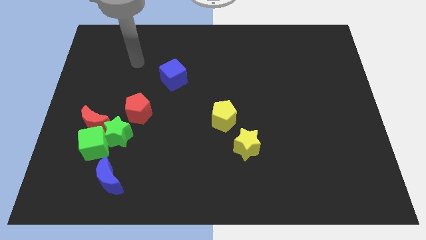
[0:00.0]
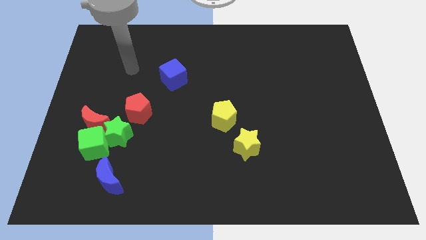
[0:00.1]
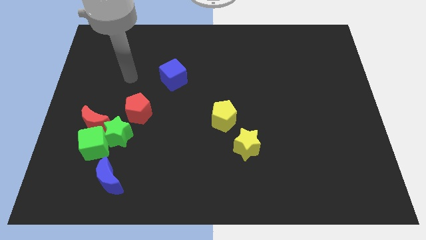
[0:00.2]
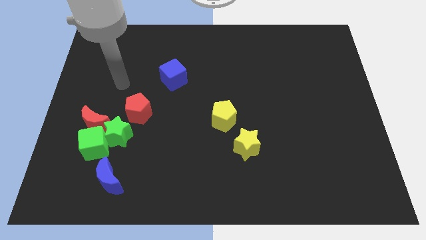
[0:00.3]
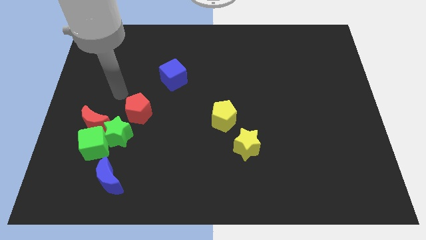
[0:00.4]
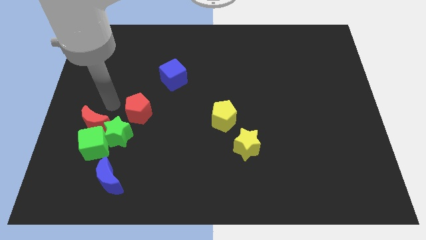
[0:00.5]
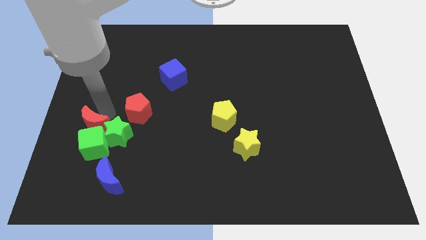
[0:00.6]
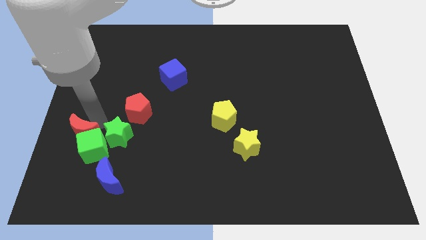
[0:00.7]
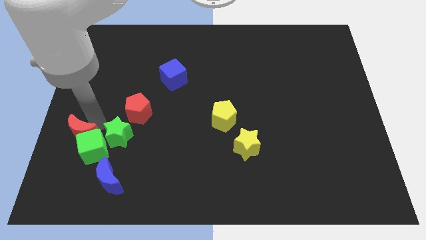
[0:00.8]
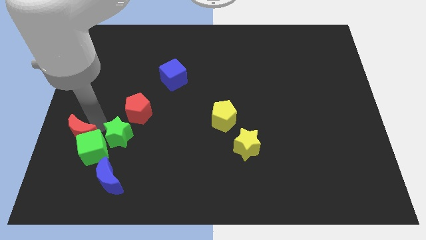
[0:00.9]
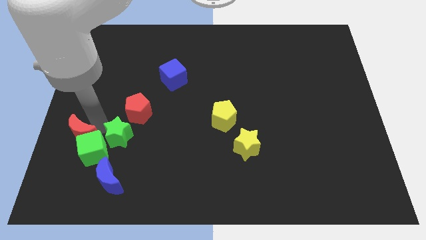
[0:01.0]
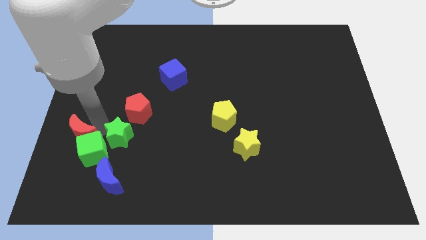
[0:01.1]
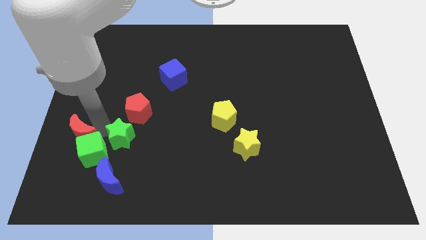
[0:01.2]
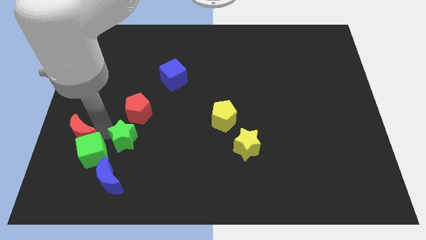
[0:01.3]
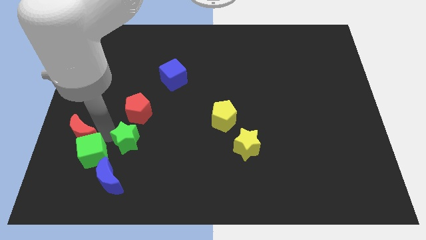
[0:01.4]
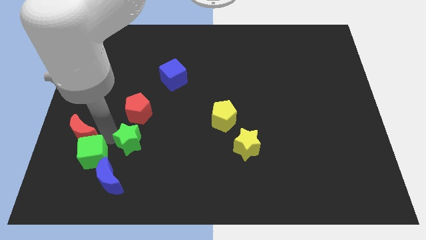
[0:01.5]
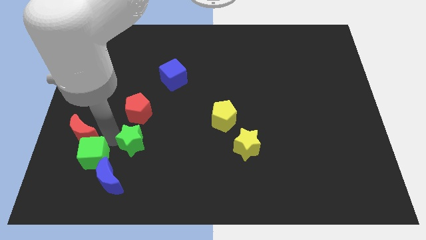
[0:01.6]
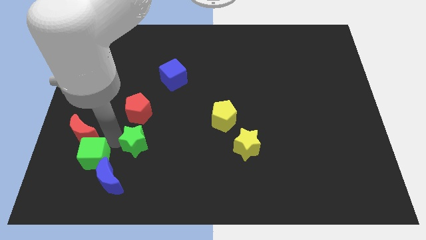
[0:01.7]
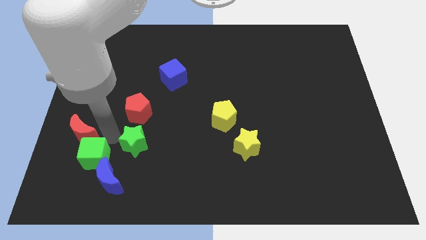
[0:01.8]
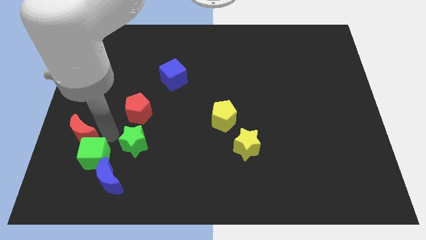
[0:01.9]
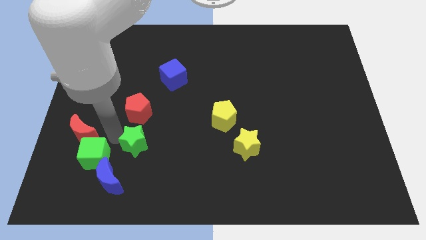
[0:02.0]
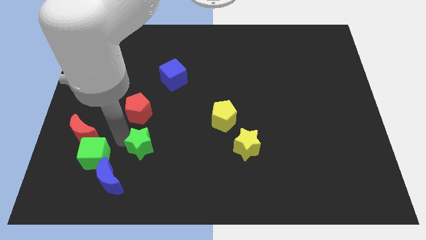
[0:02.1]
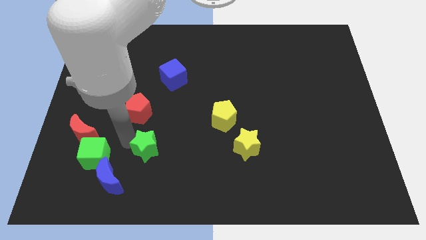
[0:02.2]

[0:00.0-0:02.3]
pull the green star apart from the clump

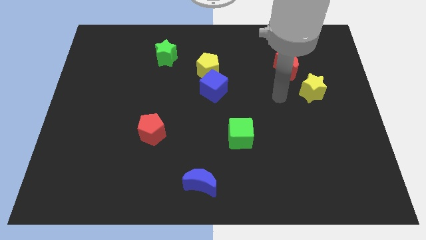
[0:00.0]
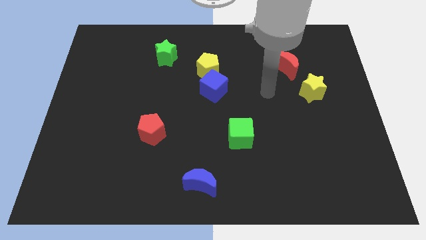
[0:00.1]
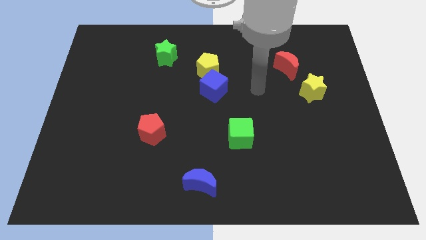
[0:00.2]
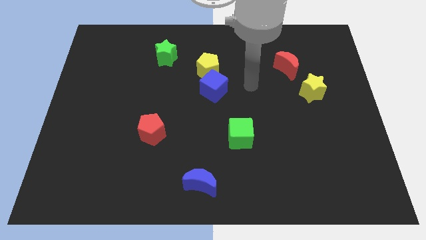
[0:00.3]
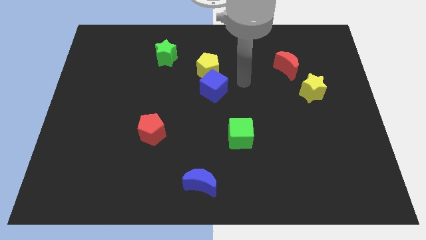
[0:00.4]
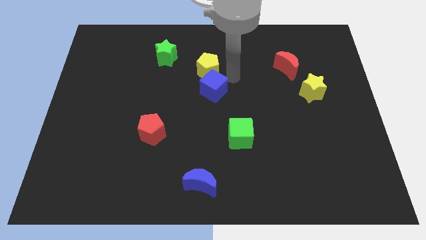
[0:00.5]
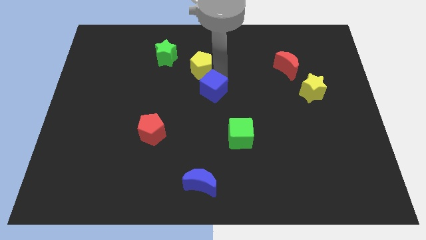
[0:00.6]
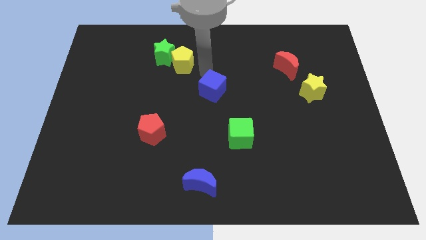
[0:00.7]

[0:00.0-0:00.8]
move the blue cube away from the yellow pentagon

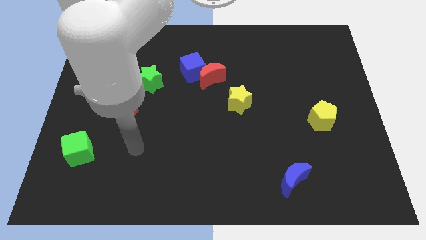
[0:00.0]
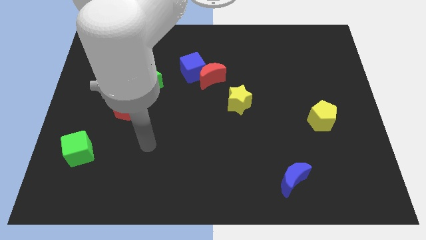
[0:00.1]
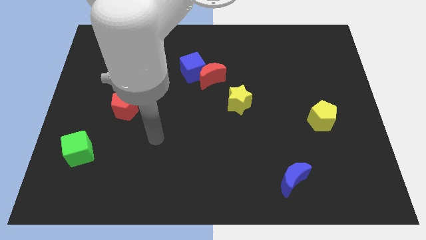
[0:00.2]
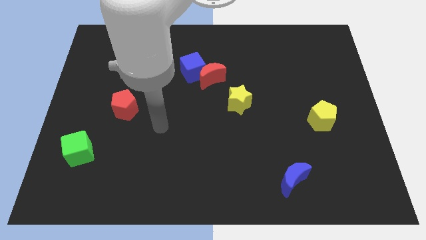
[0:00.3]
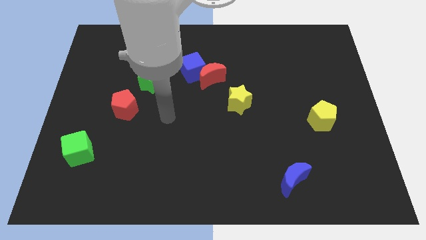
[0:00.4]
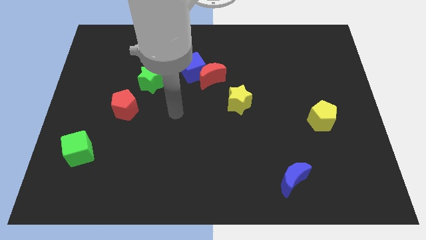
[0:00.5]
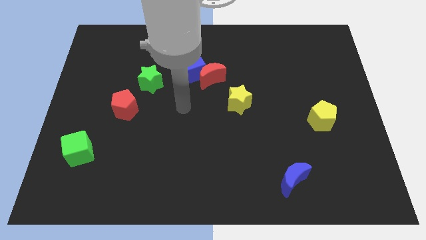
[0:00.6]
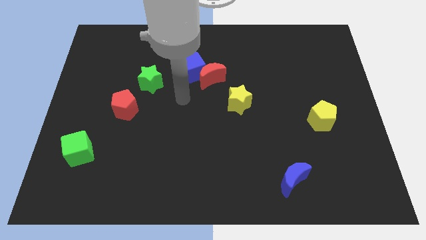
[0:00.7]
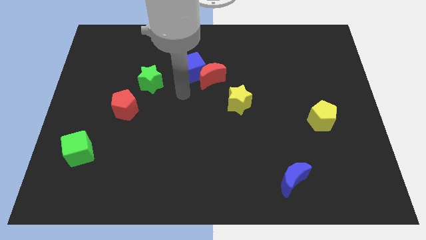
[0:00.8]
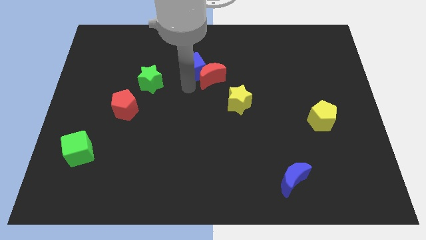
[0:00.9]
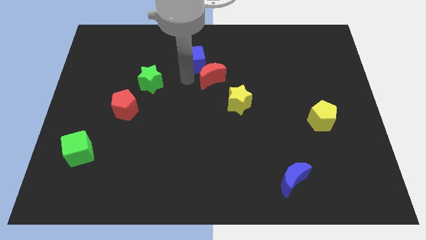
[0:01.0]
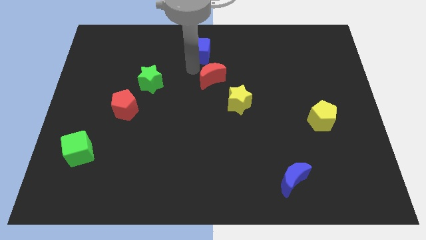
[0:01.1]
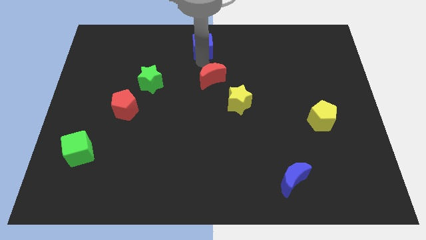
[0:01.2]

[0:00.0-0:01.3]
separate the red moon from the blue cube

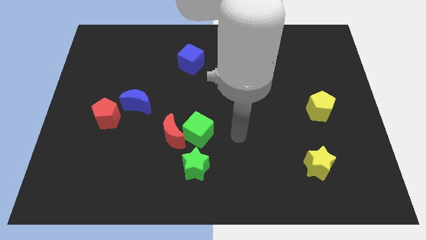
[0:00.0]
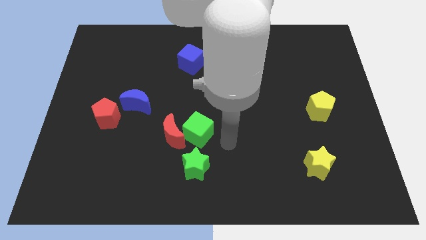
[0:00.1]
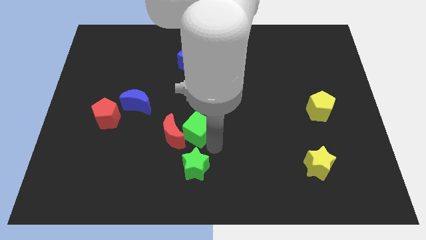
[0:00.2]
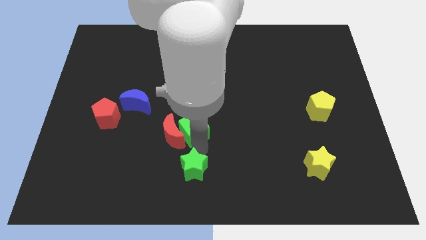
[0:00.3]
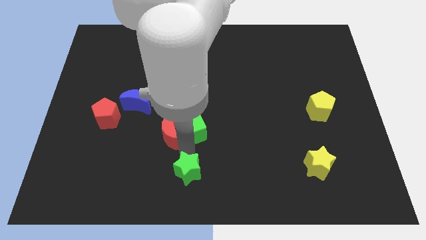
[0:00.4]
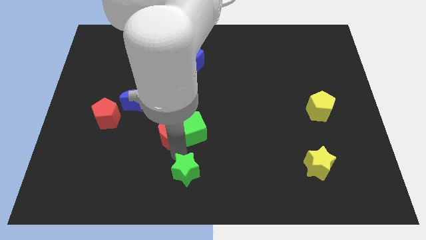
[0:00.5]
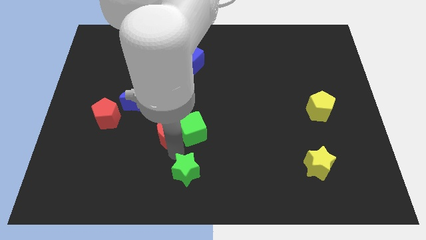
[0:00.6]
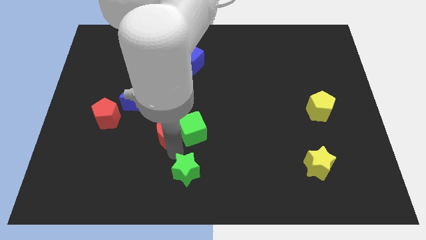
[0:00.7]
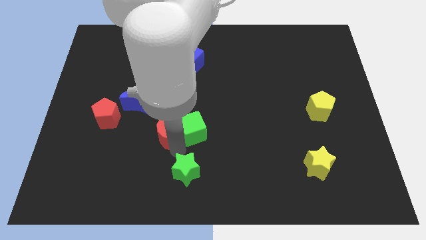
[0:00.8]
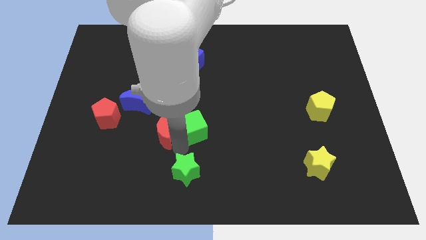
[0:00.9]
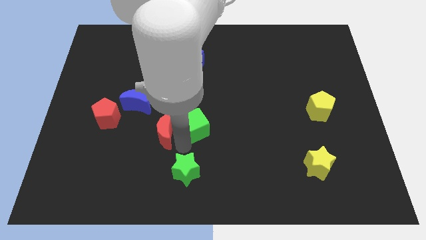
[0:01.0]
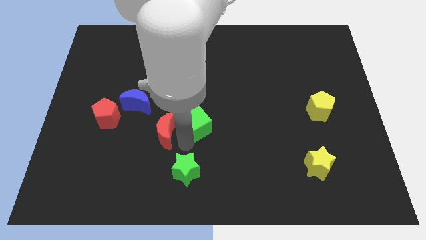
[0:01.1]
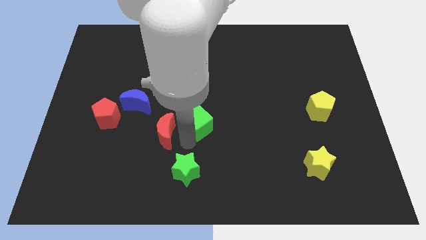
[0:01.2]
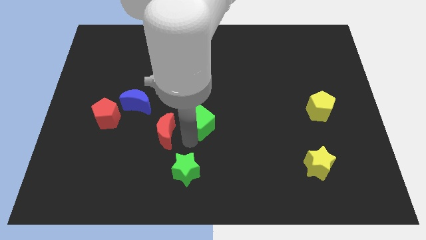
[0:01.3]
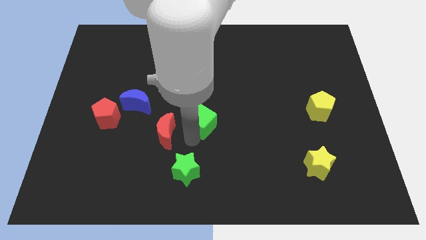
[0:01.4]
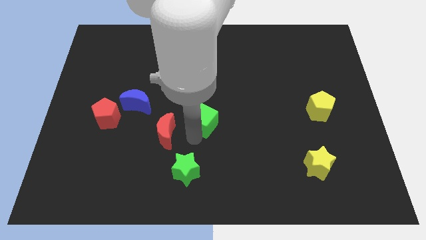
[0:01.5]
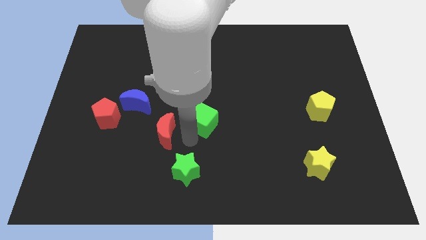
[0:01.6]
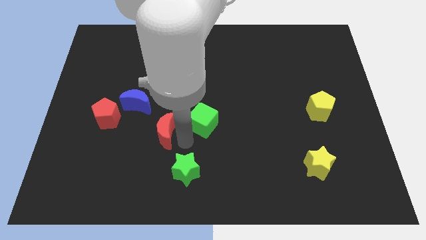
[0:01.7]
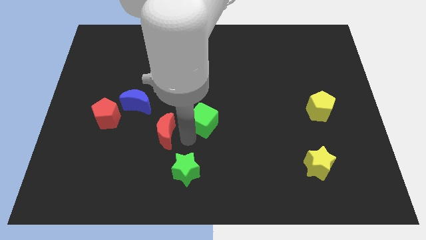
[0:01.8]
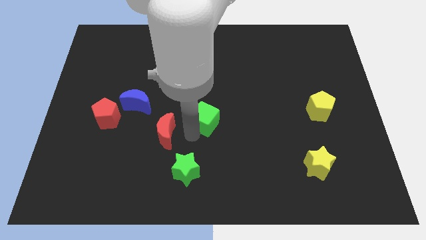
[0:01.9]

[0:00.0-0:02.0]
separate the green cube from the red moon and green star

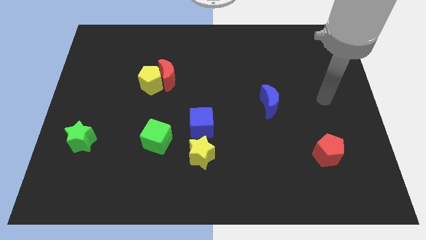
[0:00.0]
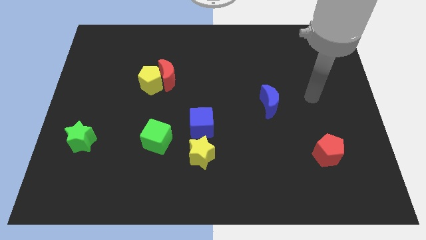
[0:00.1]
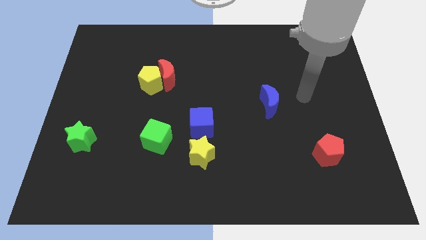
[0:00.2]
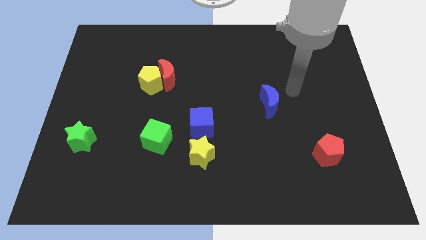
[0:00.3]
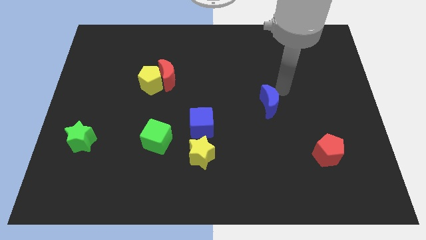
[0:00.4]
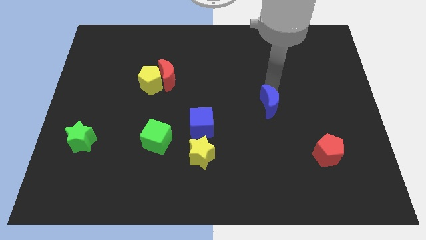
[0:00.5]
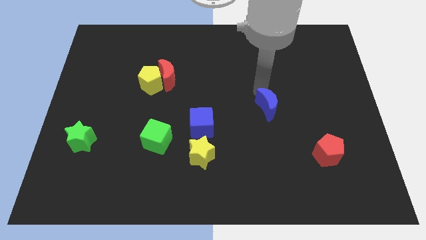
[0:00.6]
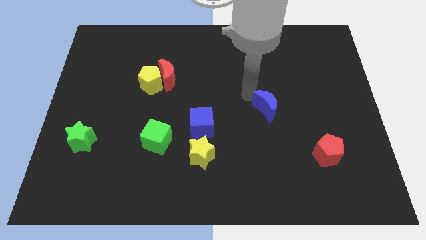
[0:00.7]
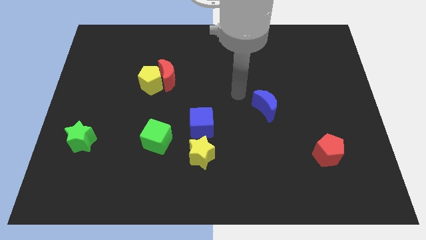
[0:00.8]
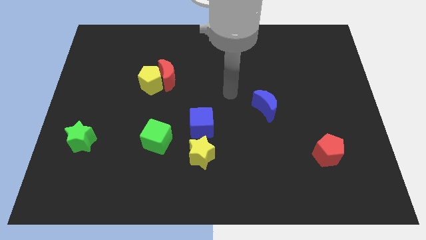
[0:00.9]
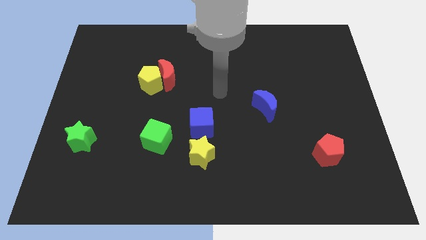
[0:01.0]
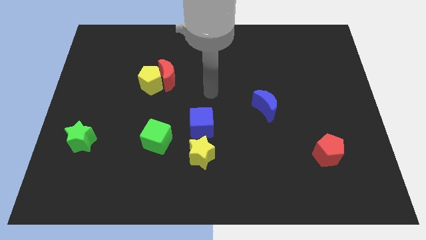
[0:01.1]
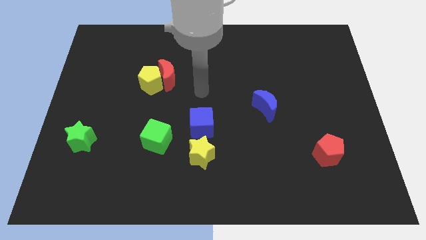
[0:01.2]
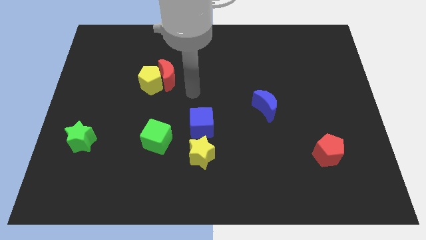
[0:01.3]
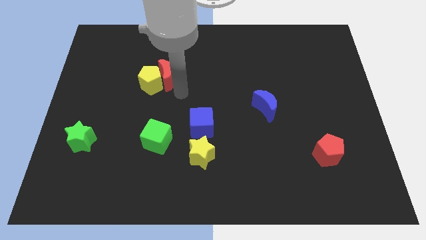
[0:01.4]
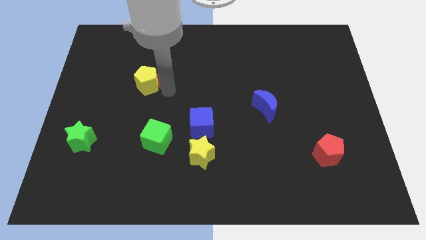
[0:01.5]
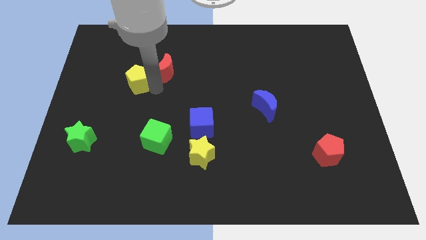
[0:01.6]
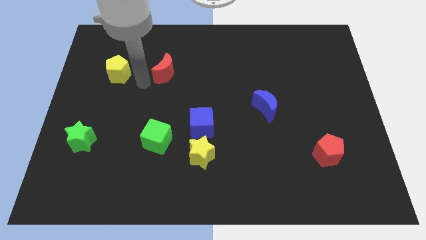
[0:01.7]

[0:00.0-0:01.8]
separate the red moon from the yellow pentagon

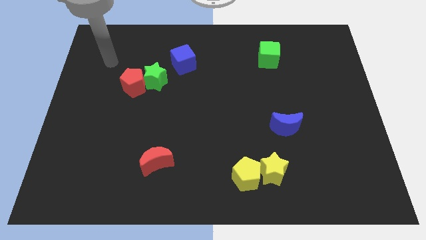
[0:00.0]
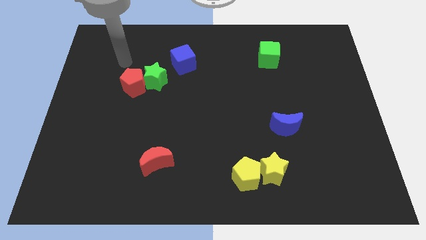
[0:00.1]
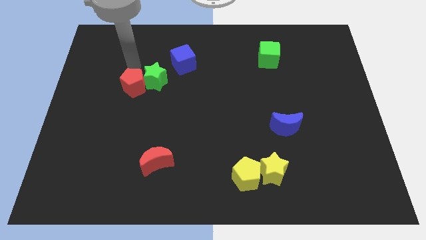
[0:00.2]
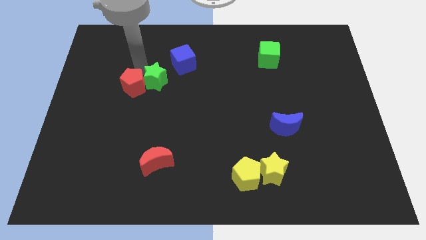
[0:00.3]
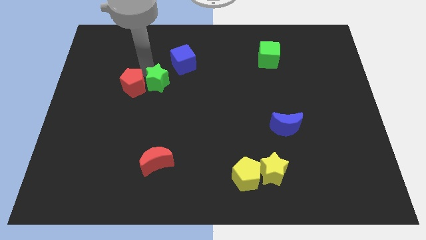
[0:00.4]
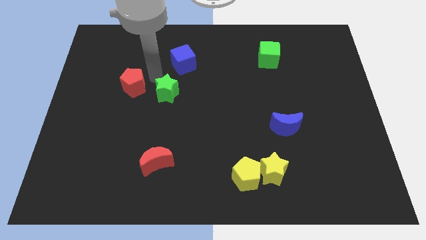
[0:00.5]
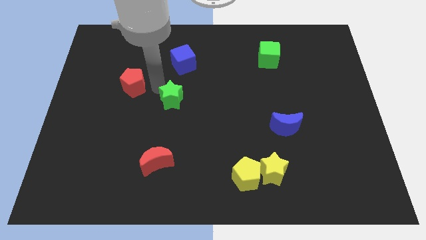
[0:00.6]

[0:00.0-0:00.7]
move the red pentagon away from the green star
